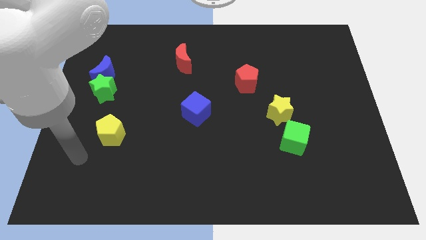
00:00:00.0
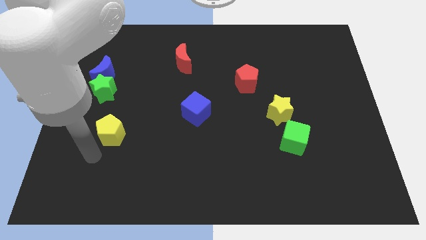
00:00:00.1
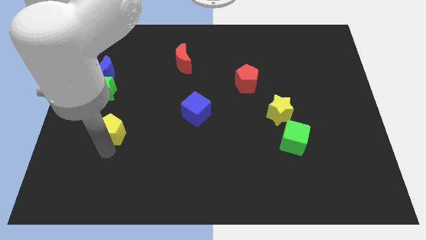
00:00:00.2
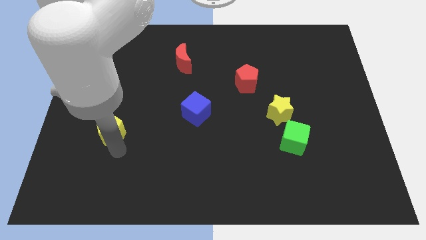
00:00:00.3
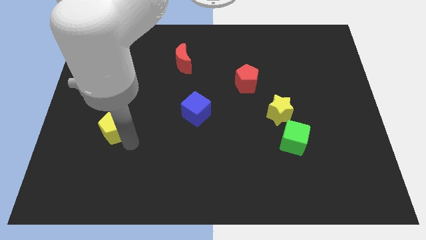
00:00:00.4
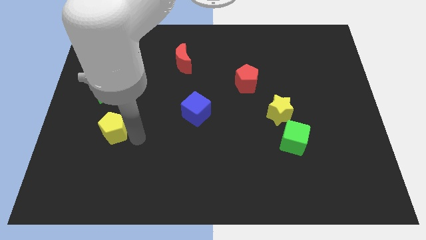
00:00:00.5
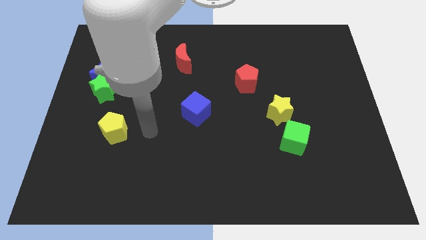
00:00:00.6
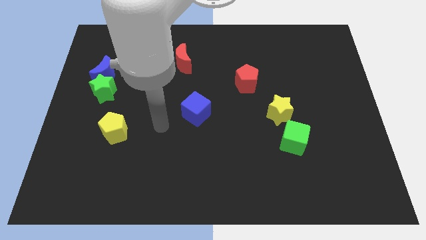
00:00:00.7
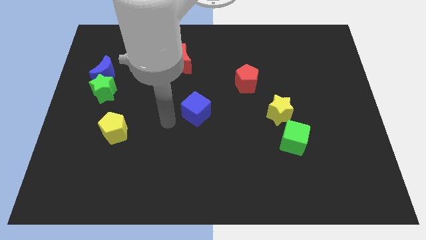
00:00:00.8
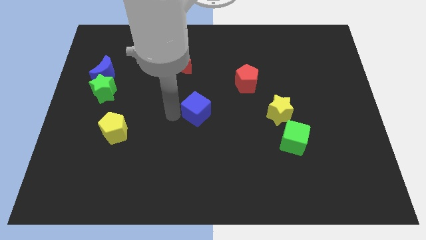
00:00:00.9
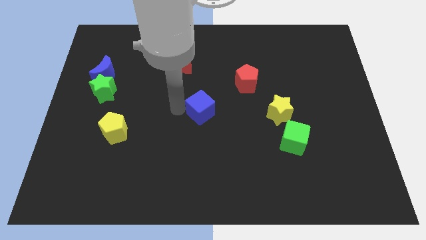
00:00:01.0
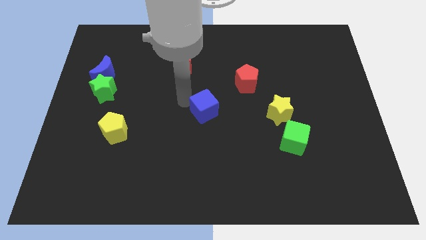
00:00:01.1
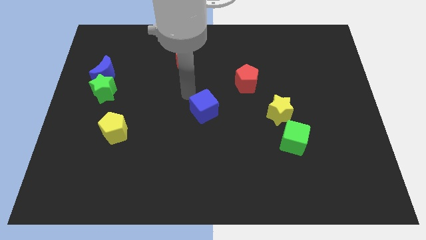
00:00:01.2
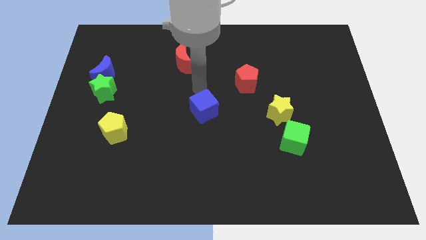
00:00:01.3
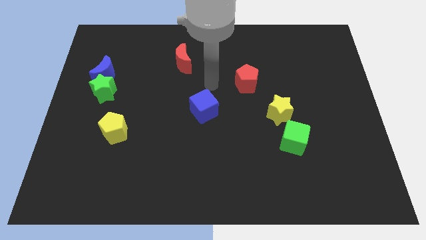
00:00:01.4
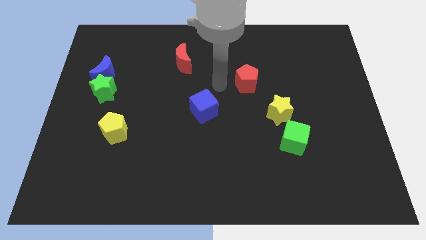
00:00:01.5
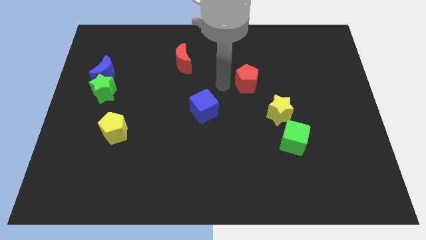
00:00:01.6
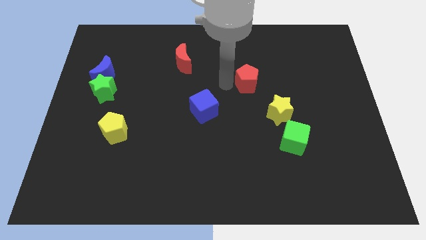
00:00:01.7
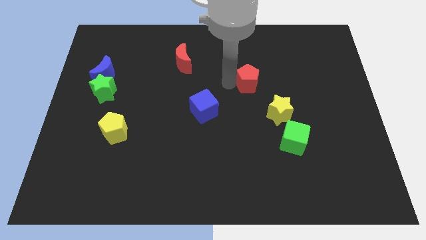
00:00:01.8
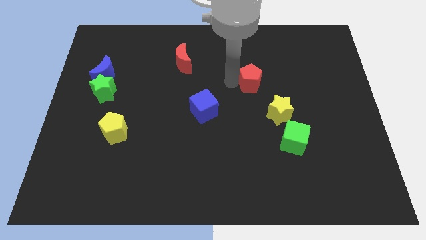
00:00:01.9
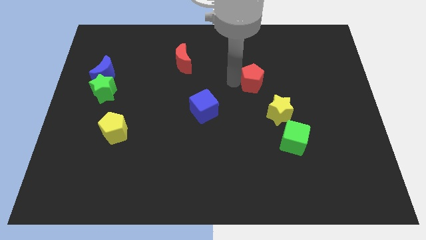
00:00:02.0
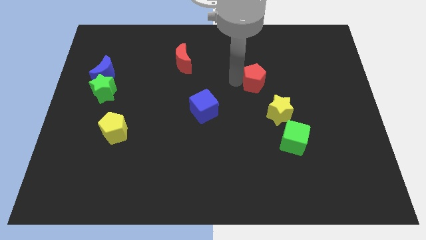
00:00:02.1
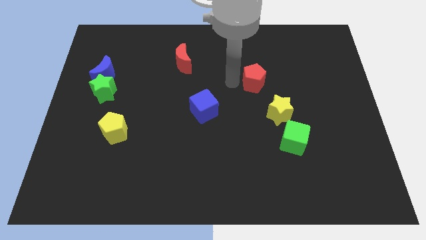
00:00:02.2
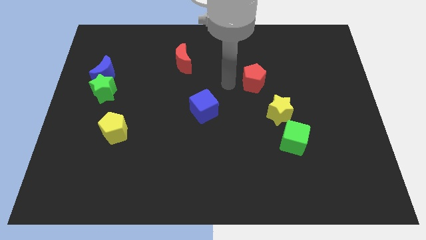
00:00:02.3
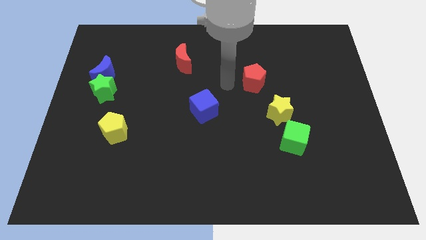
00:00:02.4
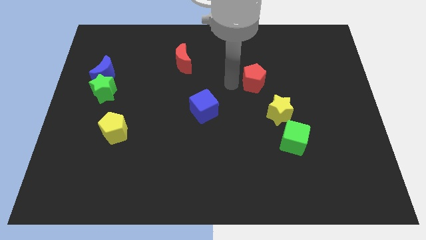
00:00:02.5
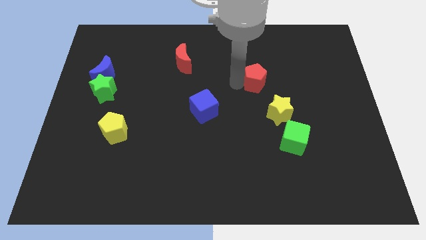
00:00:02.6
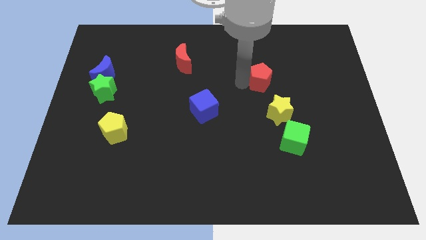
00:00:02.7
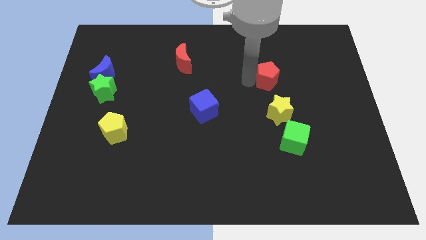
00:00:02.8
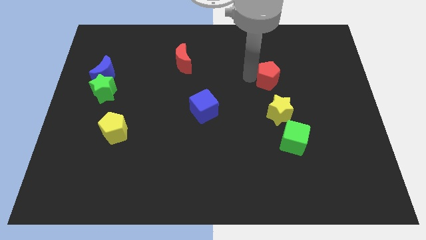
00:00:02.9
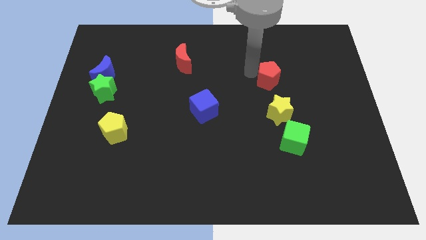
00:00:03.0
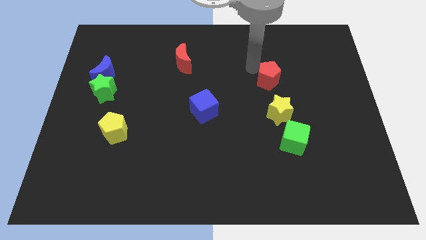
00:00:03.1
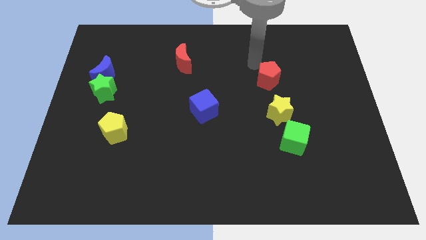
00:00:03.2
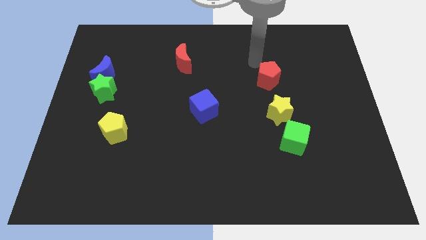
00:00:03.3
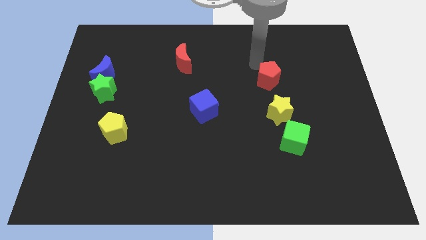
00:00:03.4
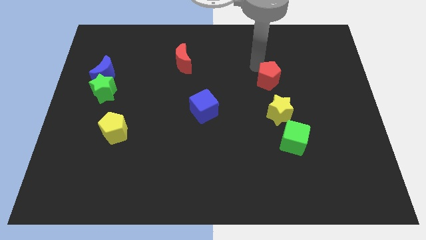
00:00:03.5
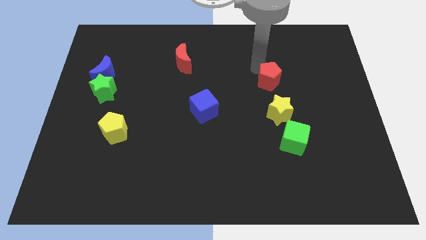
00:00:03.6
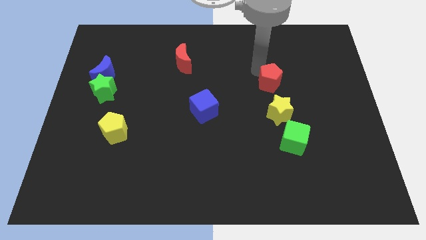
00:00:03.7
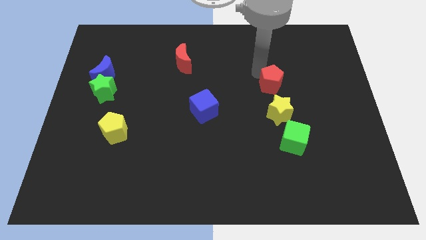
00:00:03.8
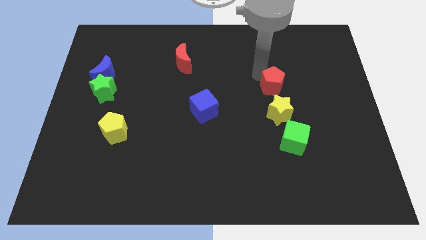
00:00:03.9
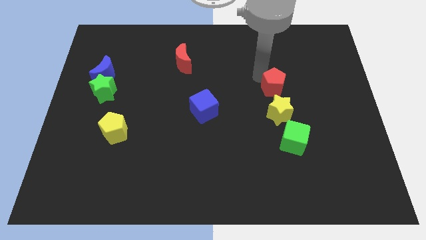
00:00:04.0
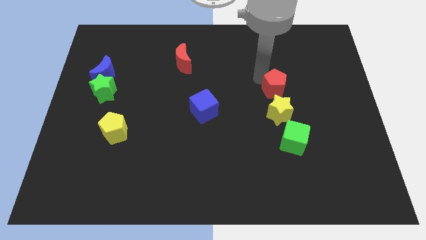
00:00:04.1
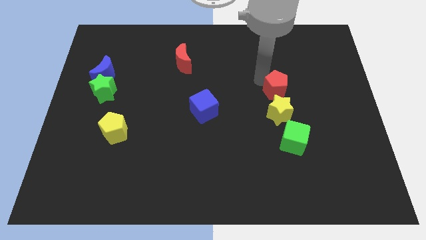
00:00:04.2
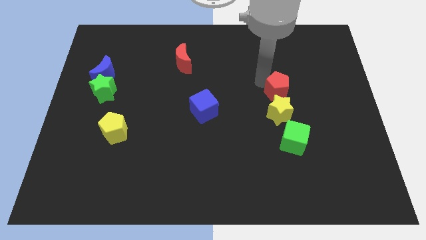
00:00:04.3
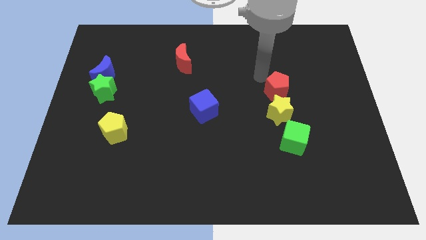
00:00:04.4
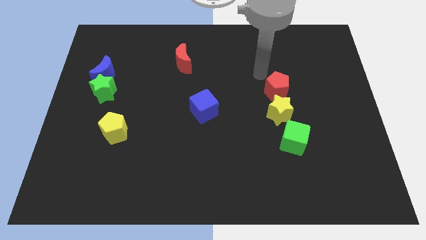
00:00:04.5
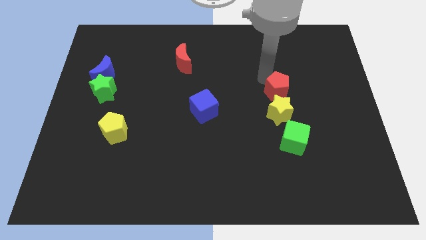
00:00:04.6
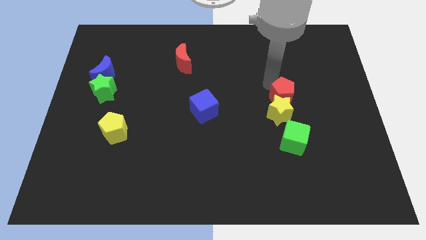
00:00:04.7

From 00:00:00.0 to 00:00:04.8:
slightly slide the red pentagon diagonally downwards and right

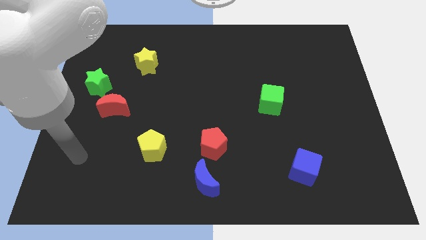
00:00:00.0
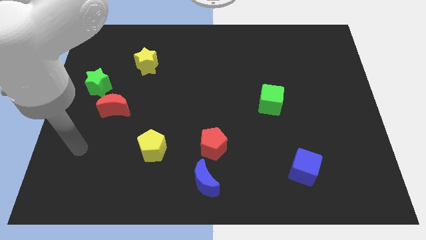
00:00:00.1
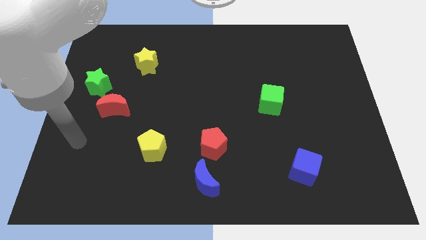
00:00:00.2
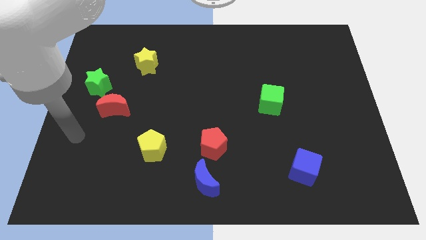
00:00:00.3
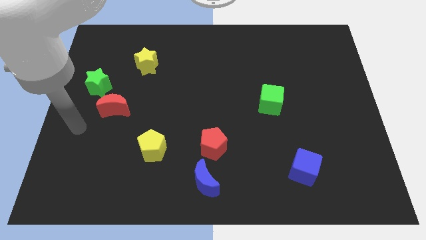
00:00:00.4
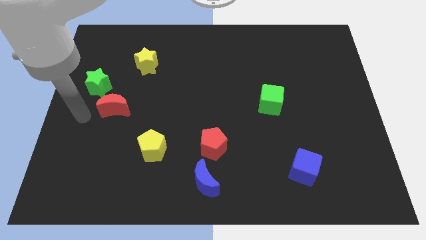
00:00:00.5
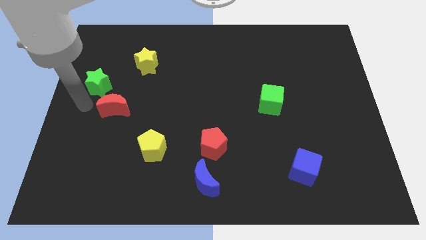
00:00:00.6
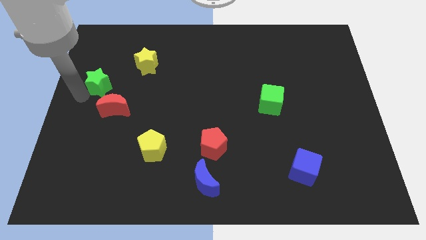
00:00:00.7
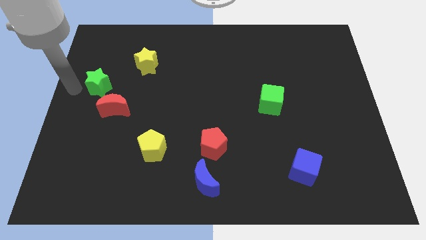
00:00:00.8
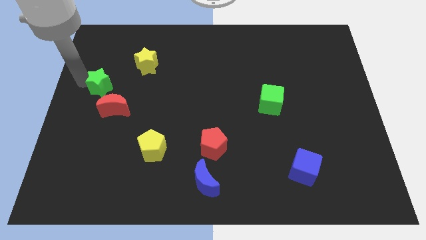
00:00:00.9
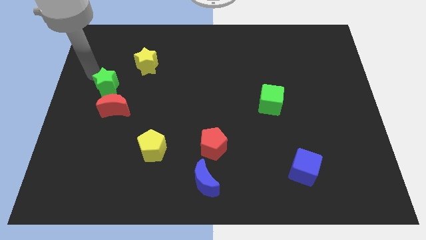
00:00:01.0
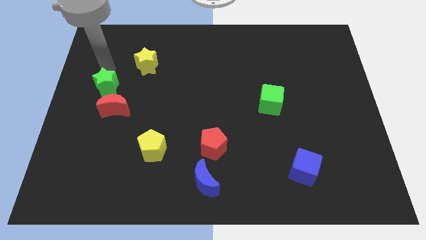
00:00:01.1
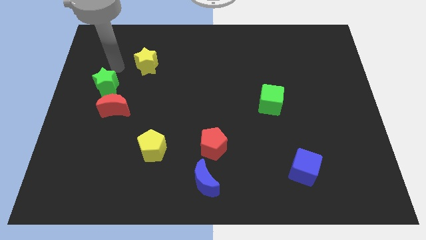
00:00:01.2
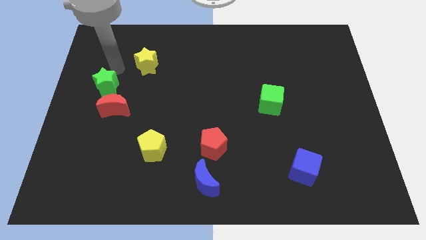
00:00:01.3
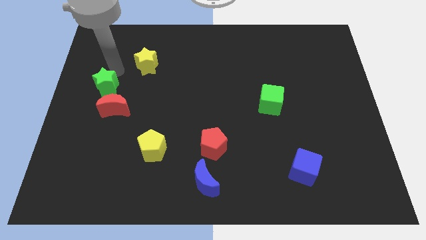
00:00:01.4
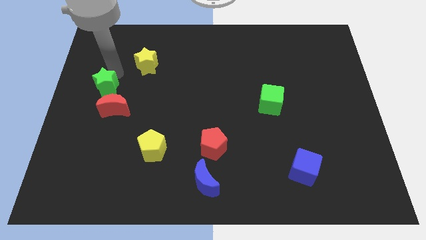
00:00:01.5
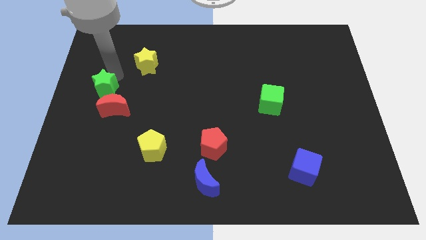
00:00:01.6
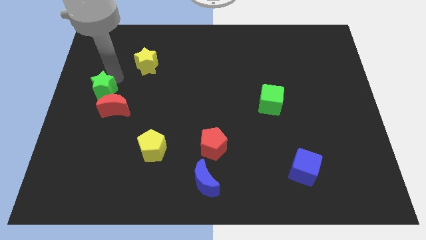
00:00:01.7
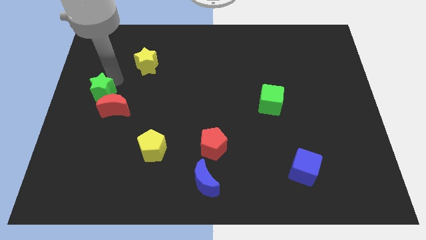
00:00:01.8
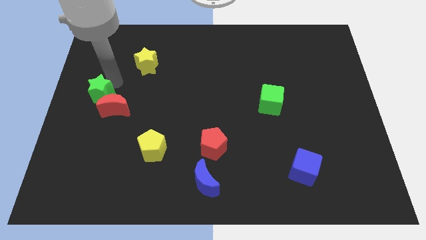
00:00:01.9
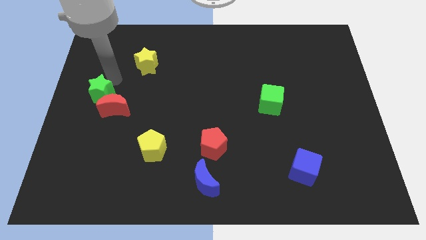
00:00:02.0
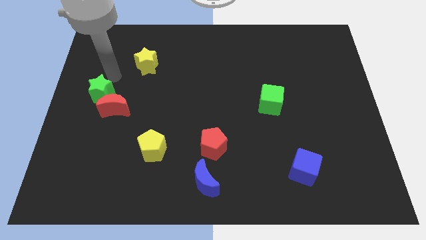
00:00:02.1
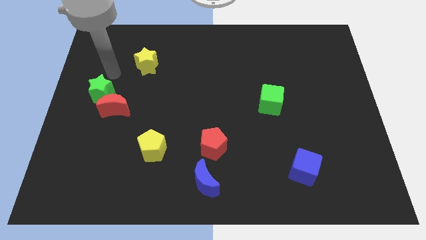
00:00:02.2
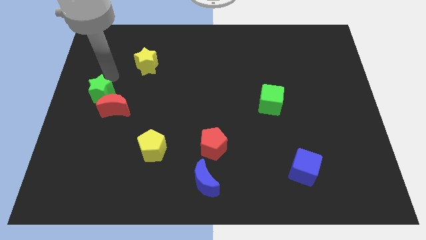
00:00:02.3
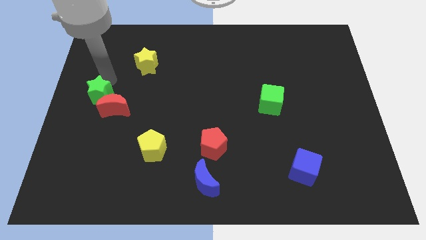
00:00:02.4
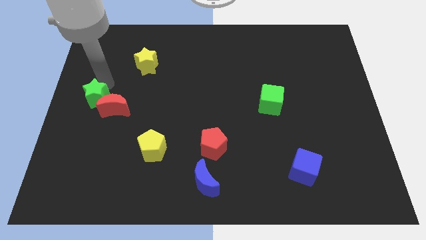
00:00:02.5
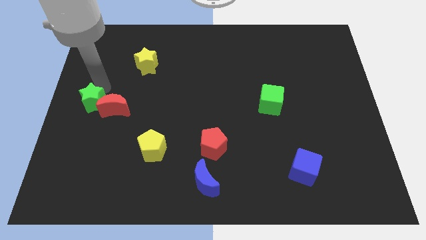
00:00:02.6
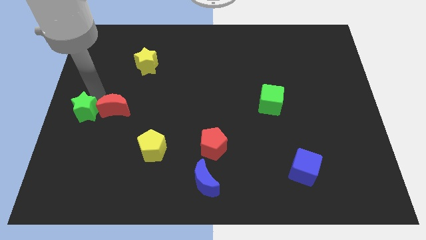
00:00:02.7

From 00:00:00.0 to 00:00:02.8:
slightly slide the green star downwards

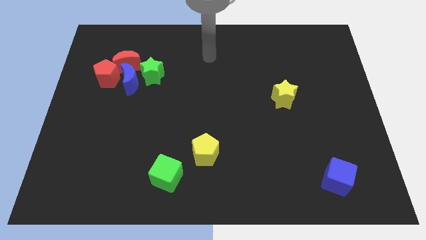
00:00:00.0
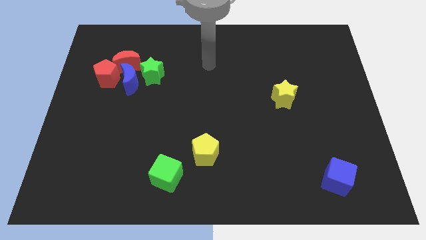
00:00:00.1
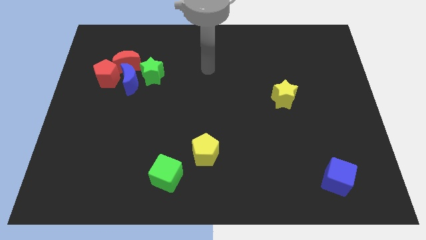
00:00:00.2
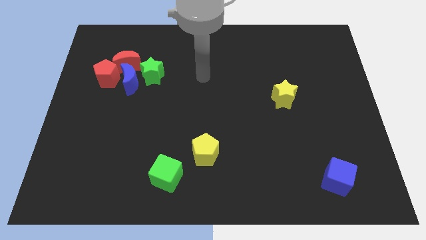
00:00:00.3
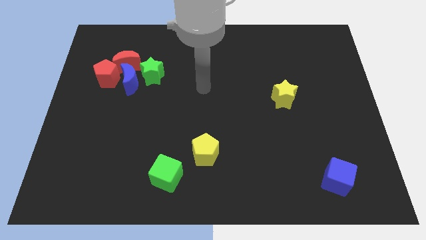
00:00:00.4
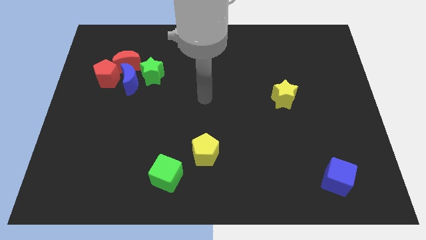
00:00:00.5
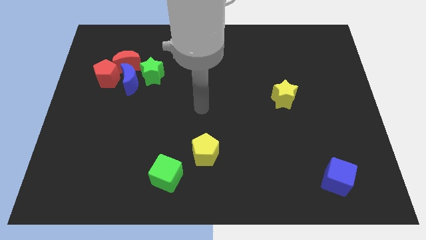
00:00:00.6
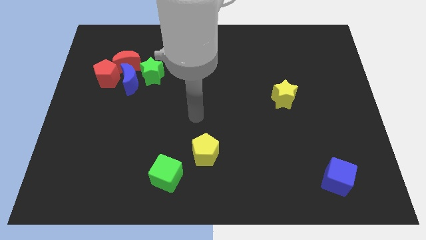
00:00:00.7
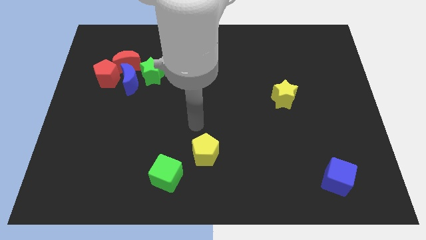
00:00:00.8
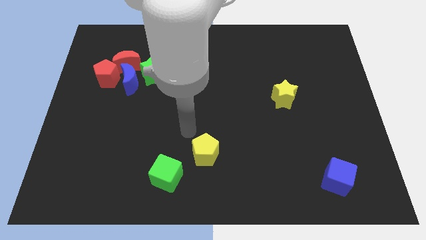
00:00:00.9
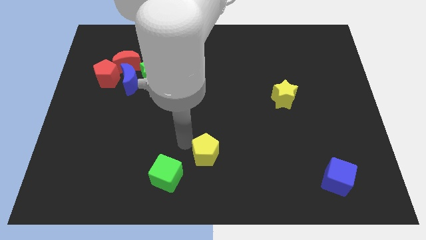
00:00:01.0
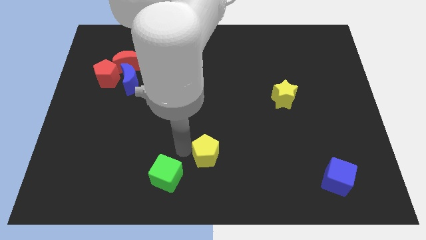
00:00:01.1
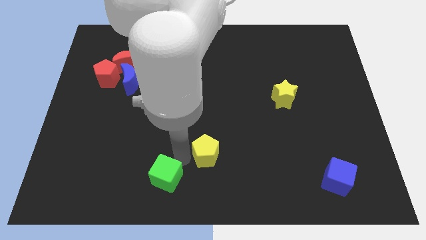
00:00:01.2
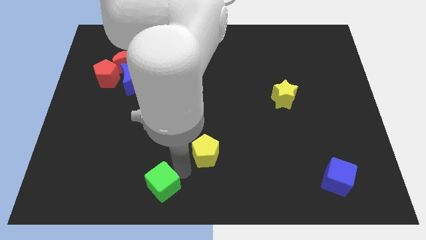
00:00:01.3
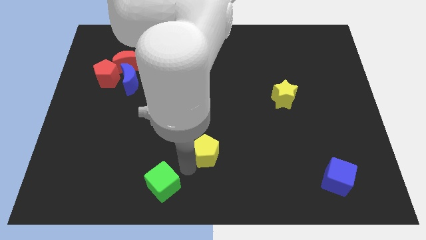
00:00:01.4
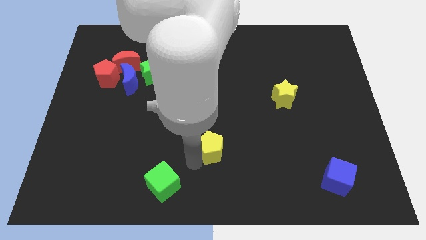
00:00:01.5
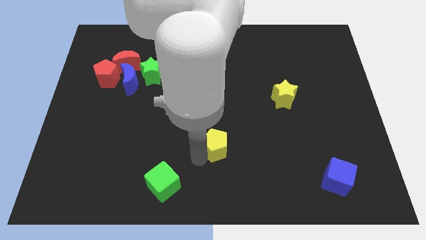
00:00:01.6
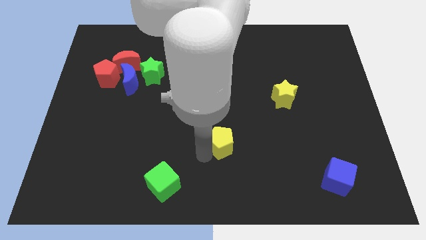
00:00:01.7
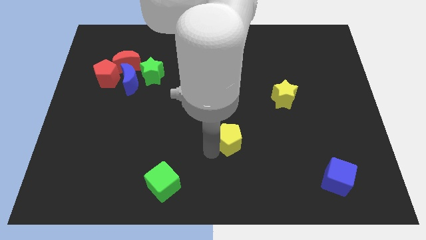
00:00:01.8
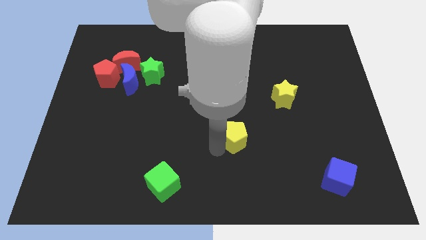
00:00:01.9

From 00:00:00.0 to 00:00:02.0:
slightly move the yellow pentagon up and then to the right
